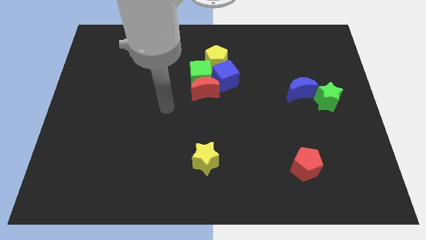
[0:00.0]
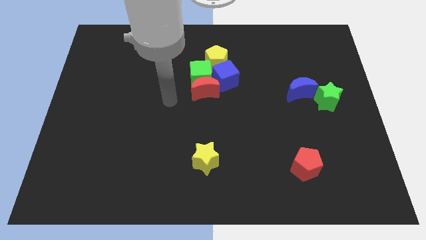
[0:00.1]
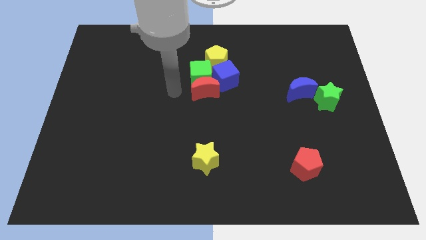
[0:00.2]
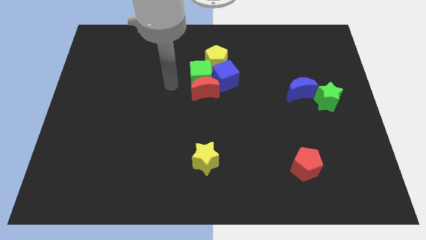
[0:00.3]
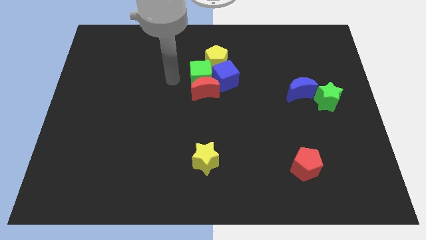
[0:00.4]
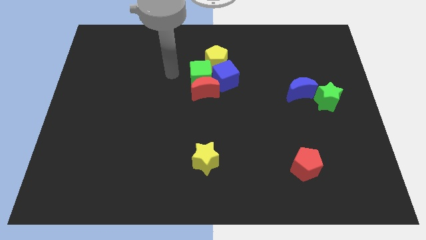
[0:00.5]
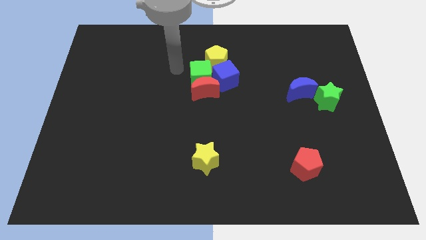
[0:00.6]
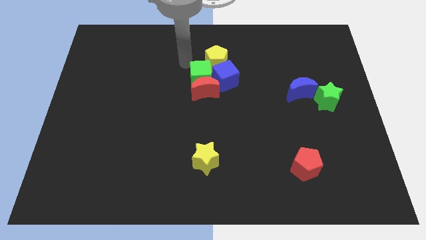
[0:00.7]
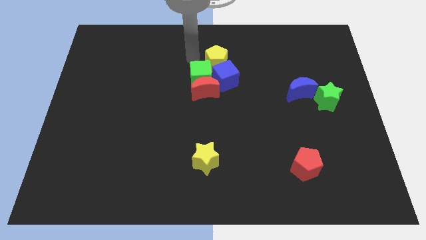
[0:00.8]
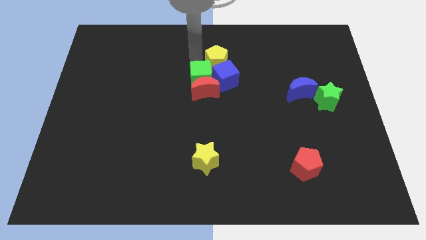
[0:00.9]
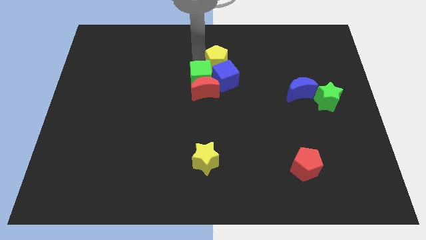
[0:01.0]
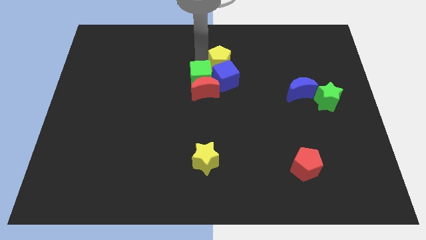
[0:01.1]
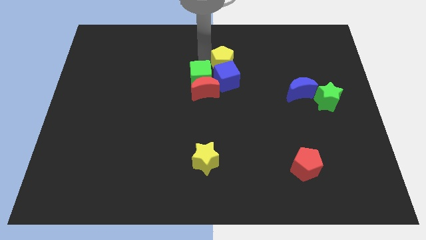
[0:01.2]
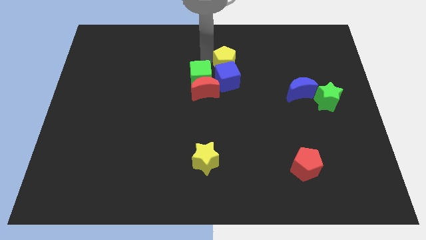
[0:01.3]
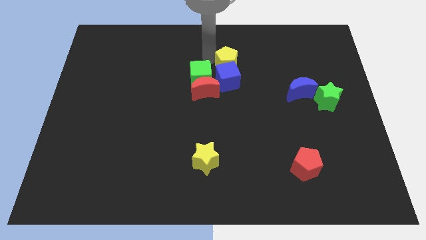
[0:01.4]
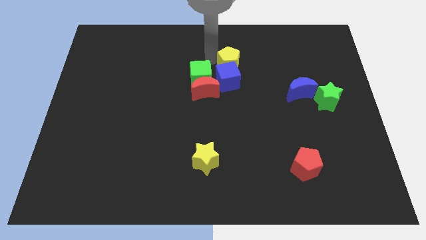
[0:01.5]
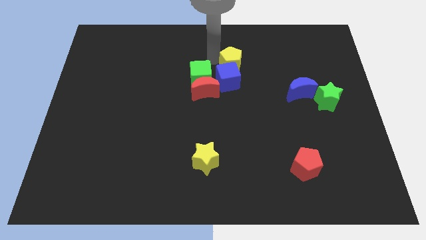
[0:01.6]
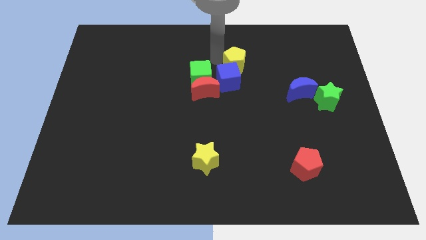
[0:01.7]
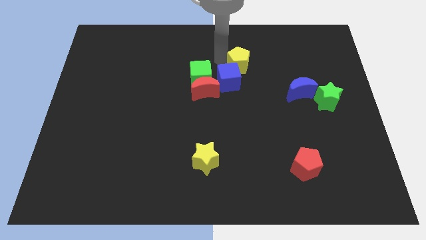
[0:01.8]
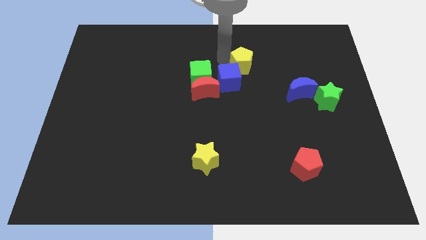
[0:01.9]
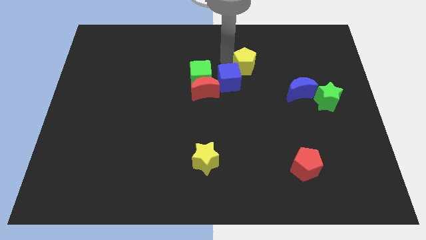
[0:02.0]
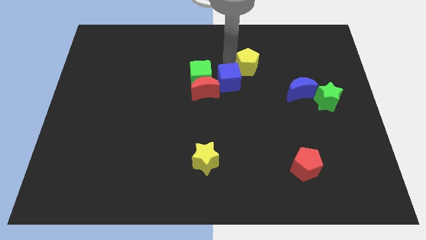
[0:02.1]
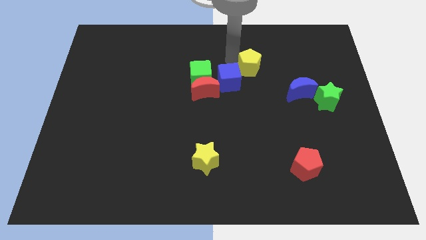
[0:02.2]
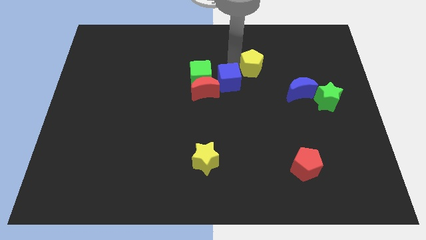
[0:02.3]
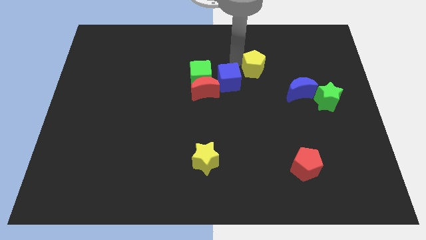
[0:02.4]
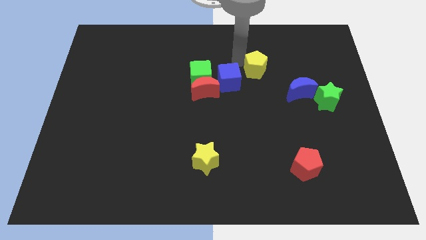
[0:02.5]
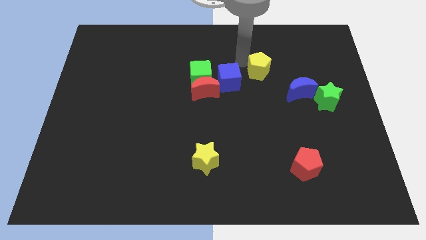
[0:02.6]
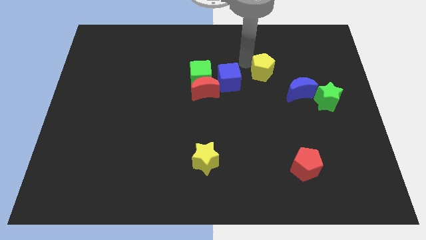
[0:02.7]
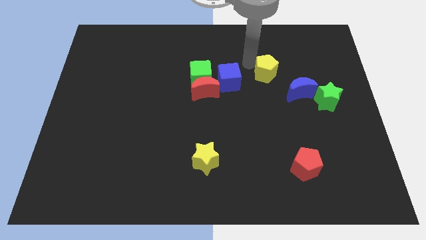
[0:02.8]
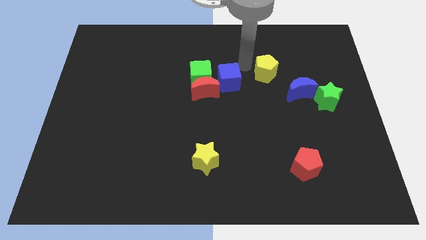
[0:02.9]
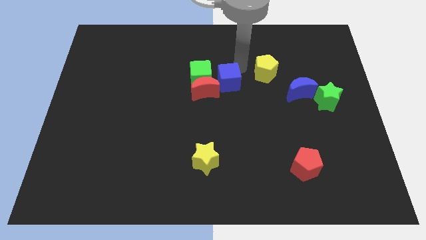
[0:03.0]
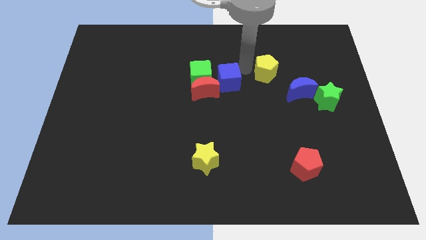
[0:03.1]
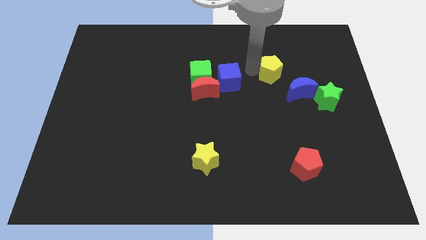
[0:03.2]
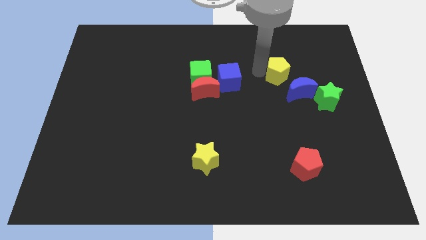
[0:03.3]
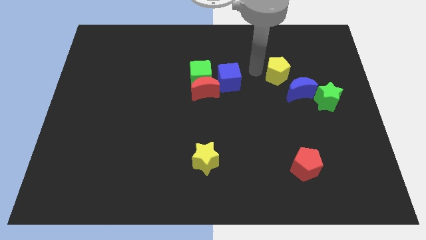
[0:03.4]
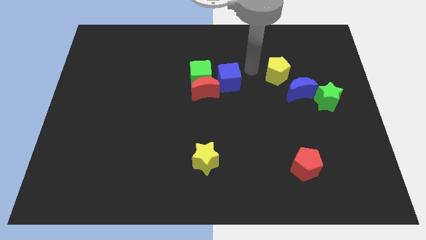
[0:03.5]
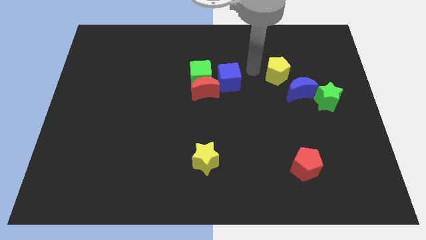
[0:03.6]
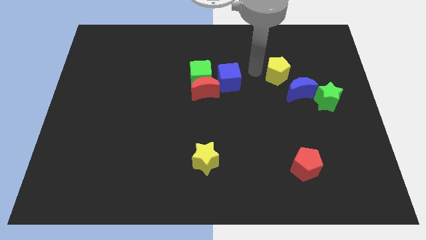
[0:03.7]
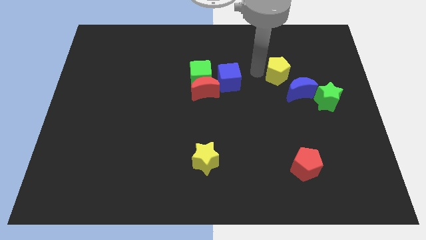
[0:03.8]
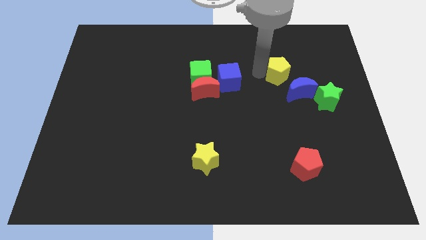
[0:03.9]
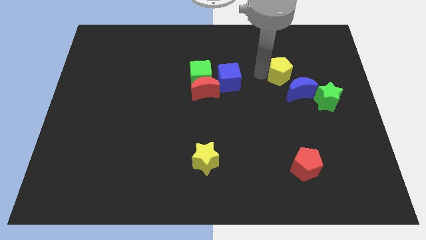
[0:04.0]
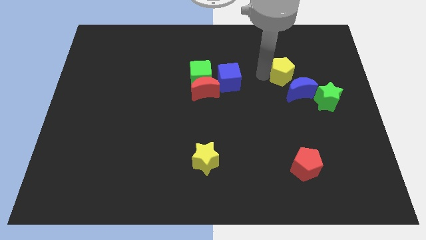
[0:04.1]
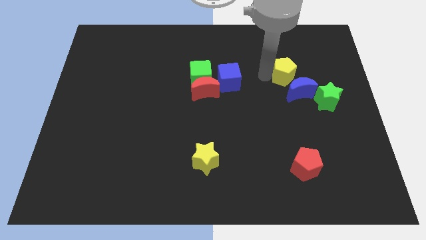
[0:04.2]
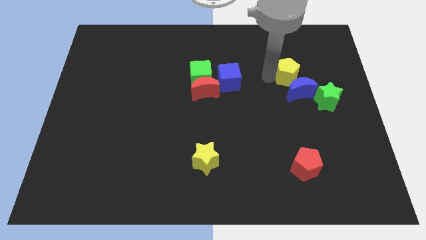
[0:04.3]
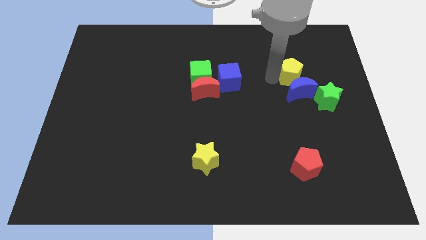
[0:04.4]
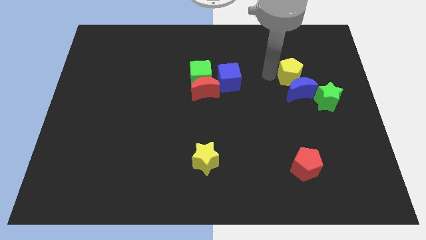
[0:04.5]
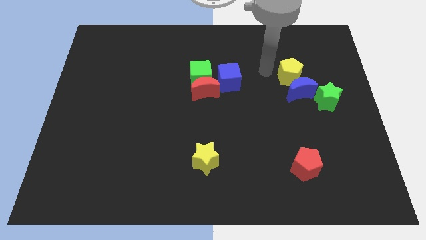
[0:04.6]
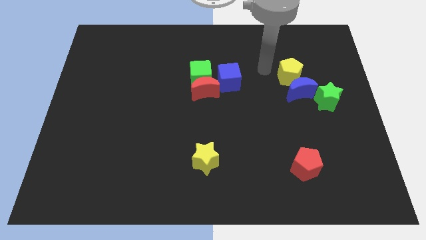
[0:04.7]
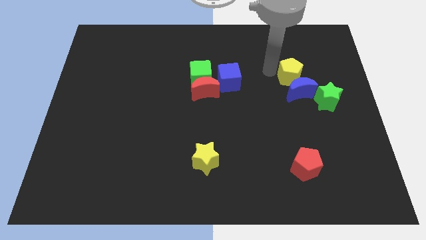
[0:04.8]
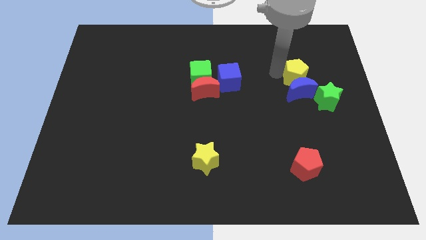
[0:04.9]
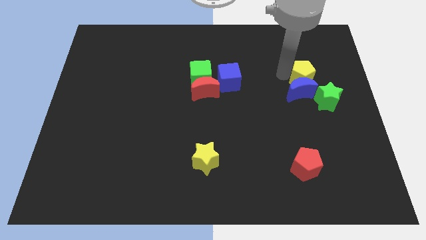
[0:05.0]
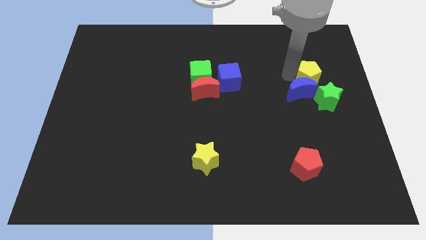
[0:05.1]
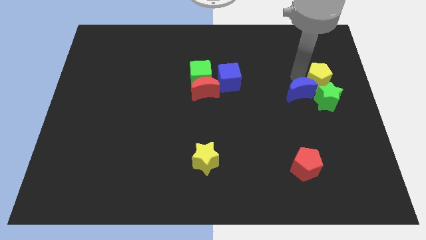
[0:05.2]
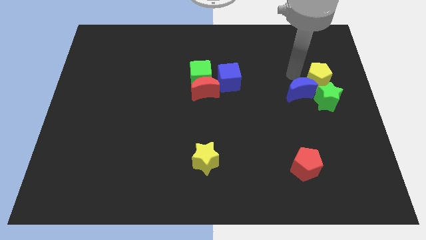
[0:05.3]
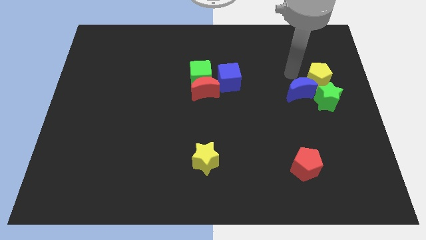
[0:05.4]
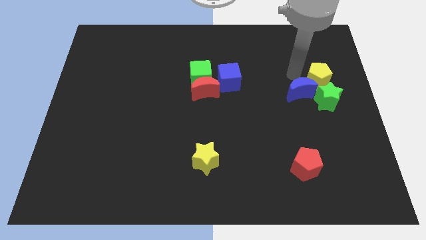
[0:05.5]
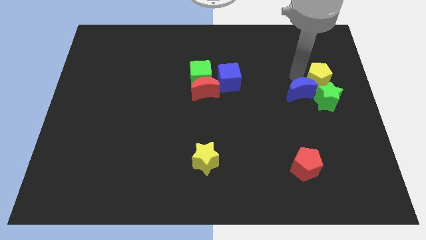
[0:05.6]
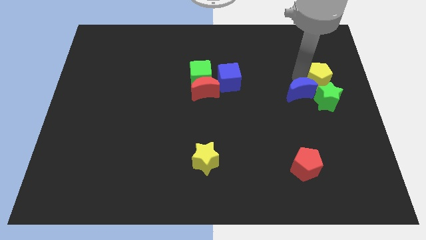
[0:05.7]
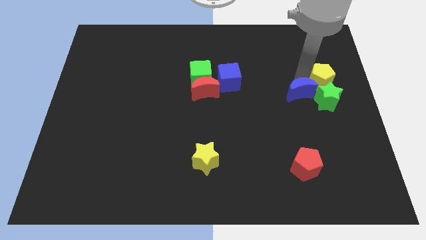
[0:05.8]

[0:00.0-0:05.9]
push the yellow pentagon to the right side of the board

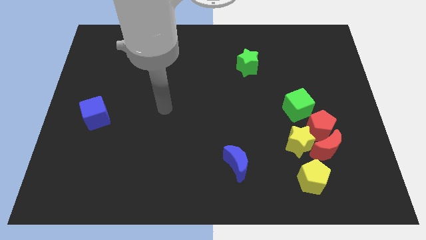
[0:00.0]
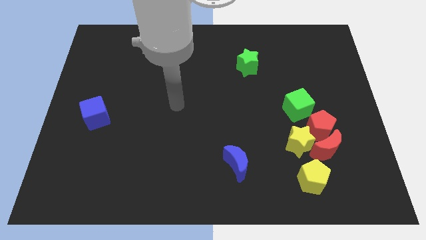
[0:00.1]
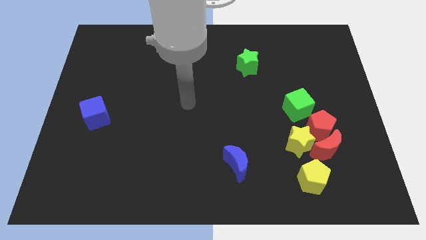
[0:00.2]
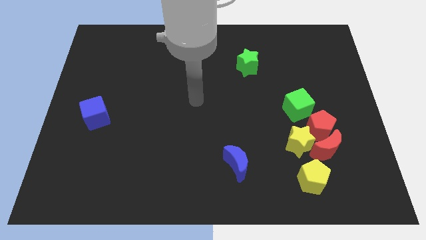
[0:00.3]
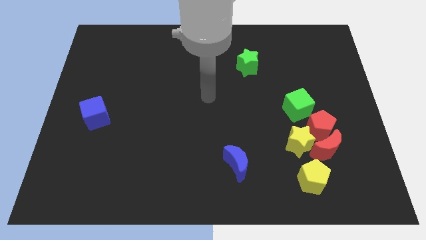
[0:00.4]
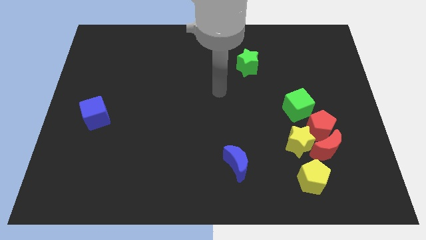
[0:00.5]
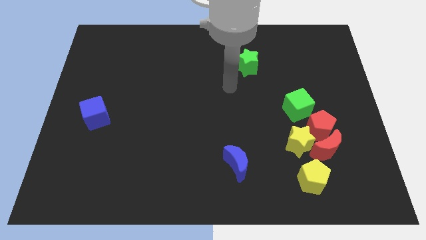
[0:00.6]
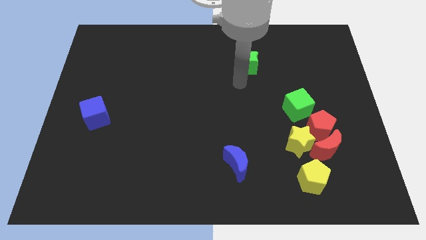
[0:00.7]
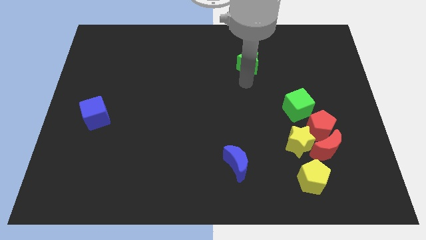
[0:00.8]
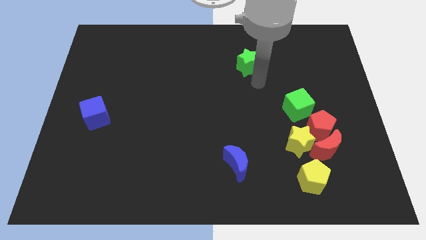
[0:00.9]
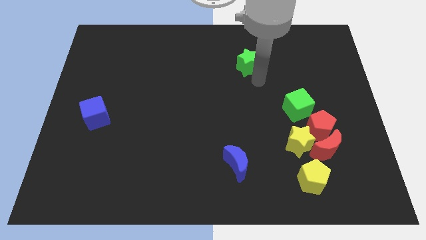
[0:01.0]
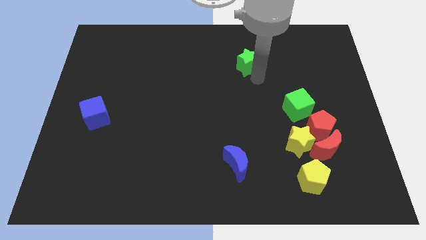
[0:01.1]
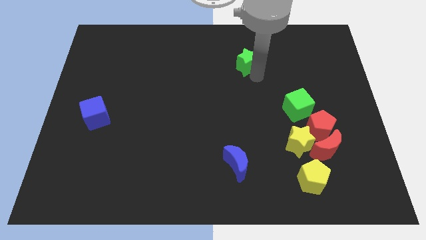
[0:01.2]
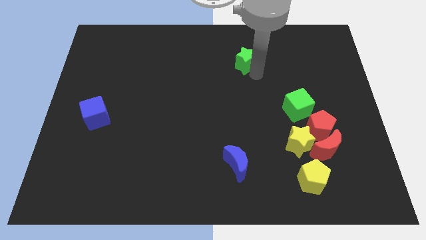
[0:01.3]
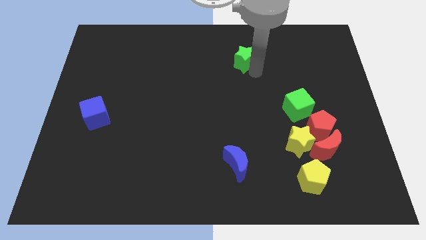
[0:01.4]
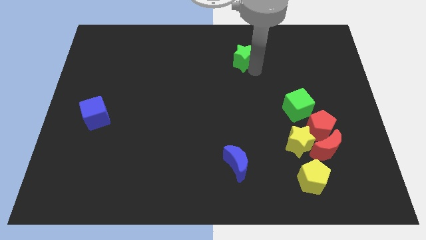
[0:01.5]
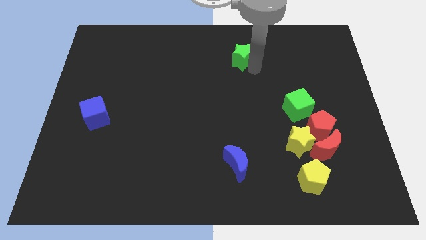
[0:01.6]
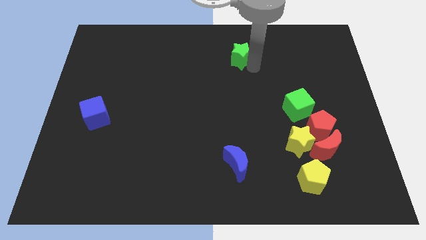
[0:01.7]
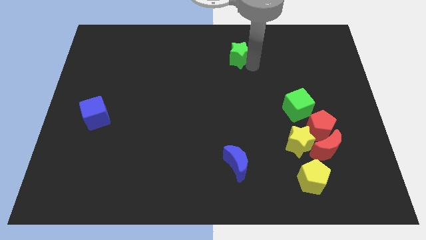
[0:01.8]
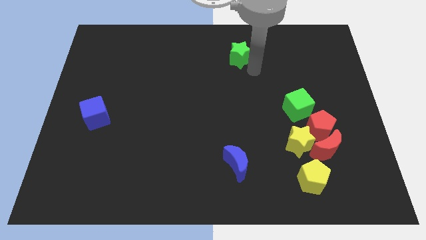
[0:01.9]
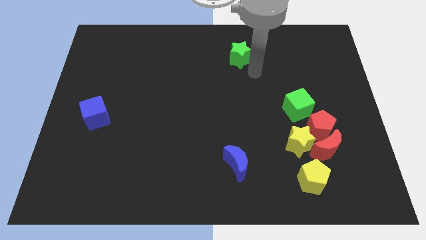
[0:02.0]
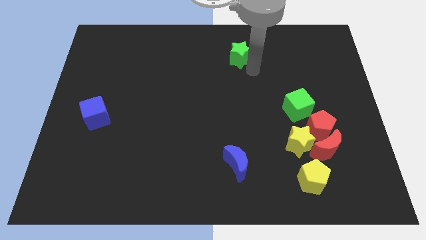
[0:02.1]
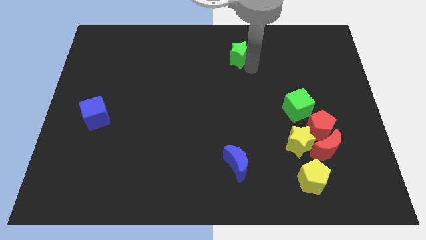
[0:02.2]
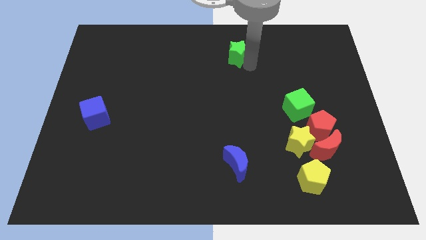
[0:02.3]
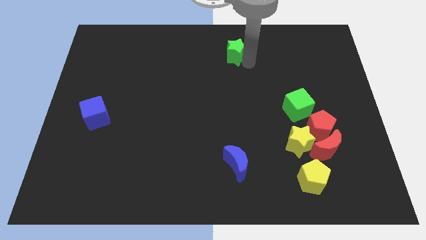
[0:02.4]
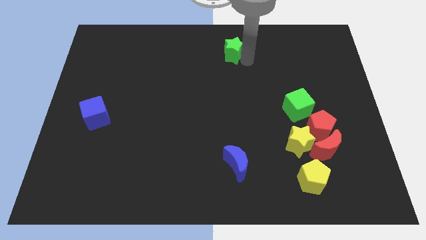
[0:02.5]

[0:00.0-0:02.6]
slide the green star to the top
